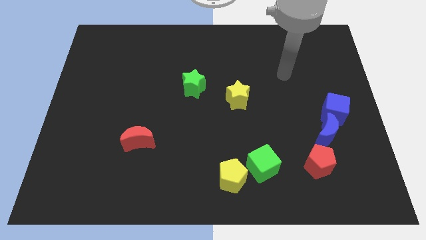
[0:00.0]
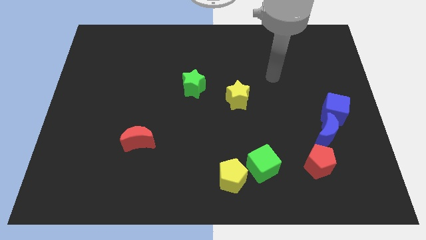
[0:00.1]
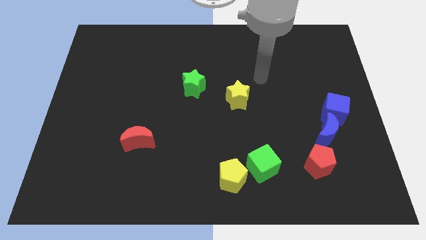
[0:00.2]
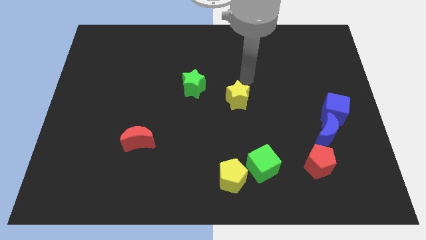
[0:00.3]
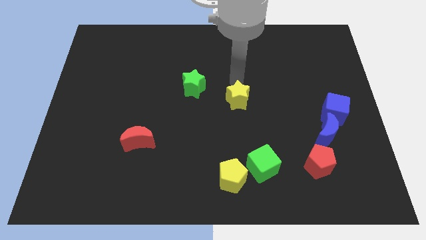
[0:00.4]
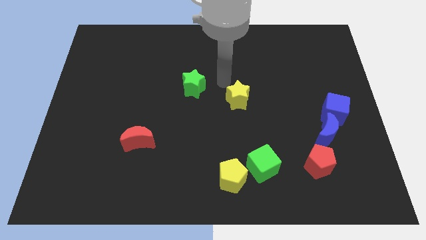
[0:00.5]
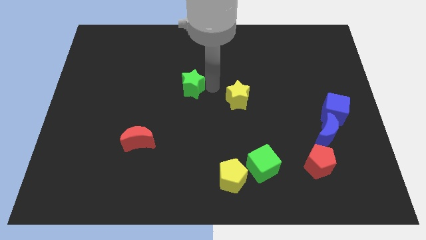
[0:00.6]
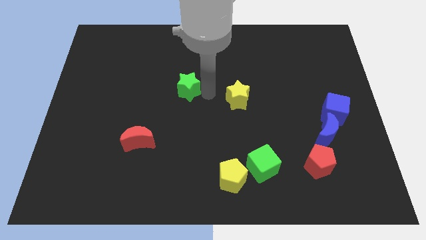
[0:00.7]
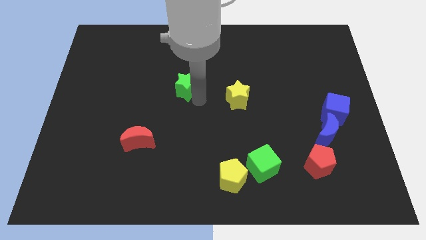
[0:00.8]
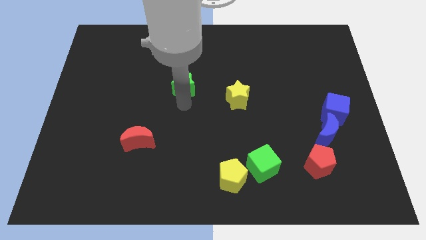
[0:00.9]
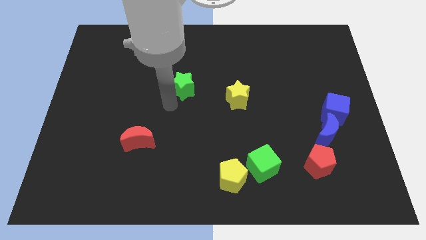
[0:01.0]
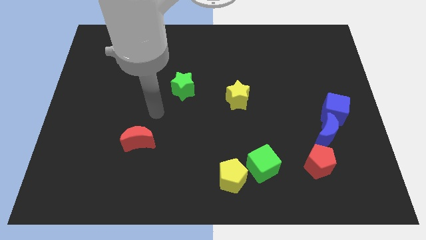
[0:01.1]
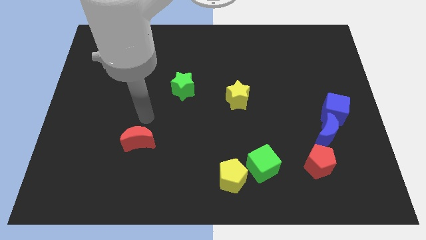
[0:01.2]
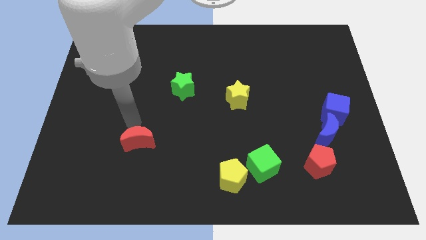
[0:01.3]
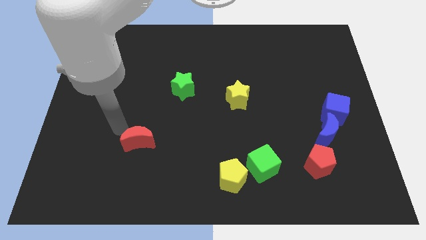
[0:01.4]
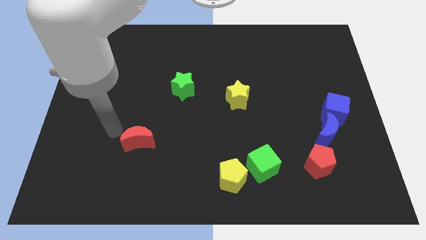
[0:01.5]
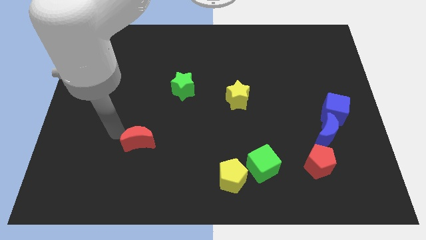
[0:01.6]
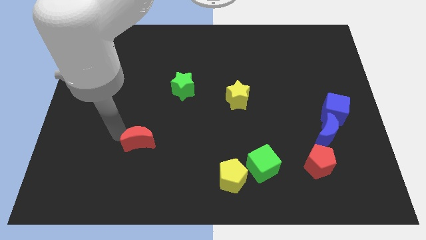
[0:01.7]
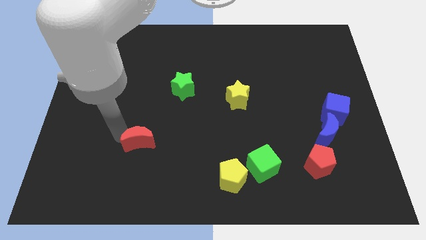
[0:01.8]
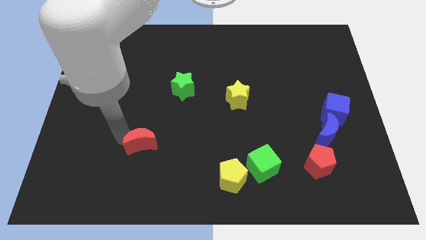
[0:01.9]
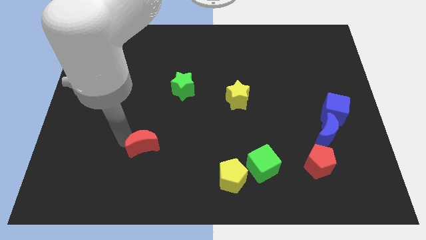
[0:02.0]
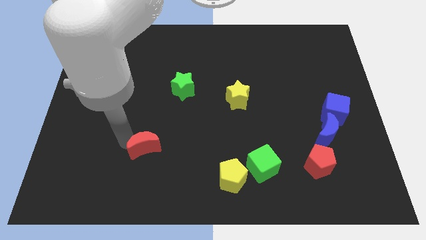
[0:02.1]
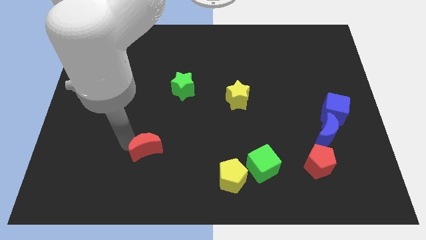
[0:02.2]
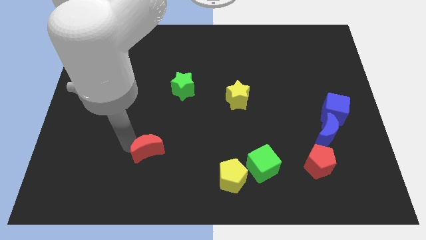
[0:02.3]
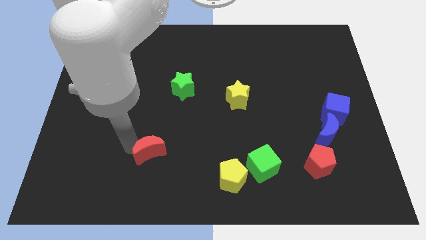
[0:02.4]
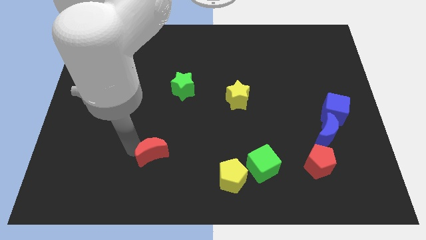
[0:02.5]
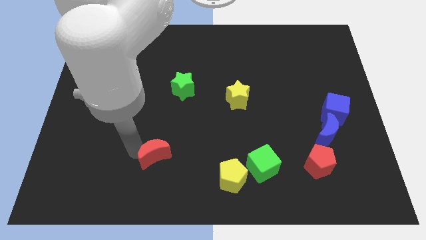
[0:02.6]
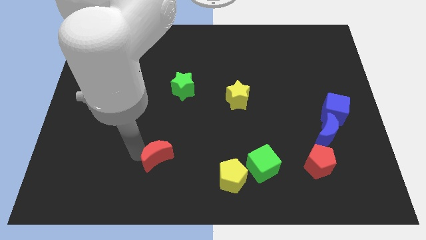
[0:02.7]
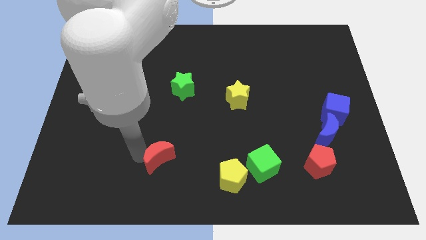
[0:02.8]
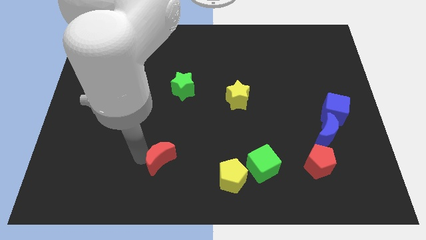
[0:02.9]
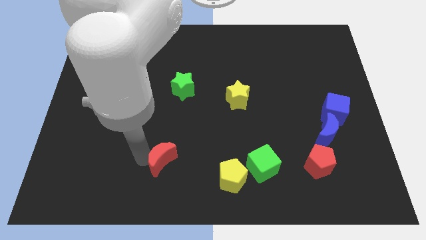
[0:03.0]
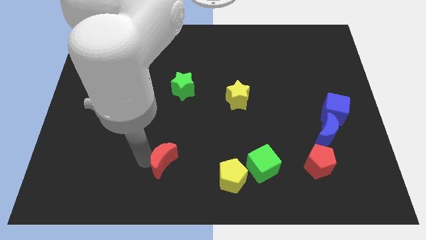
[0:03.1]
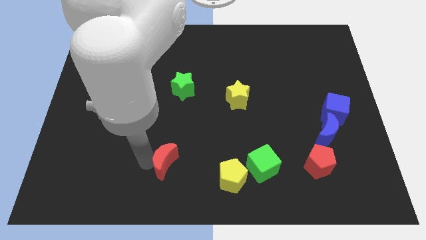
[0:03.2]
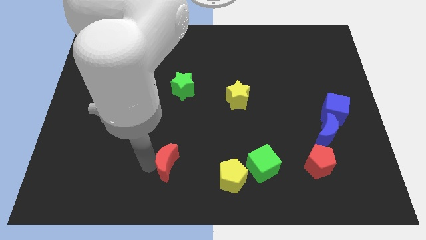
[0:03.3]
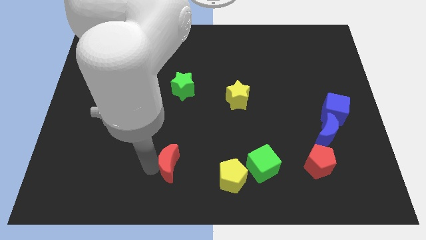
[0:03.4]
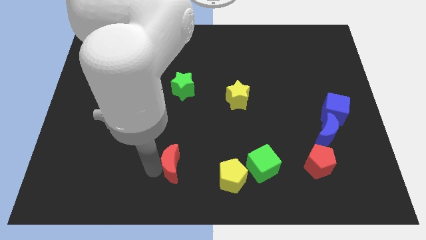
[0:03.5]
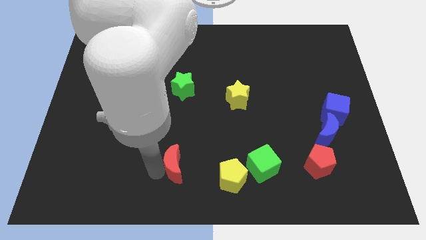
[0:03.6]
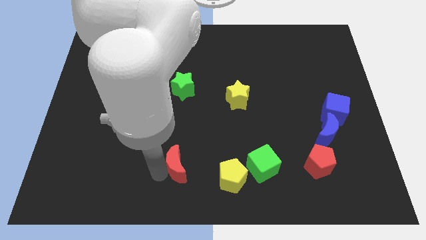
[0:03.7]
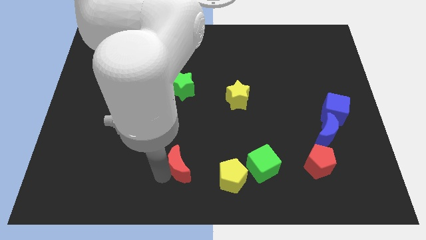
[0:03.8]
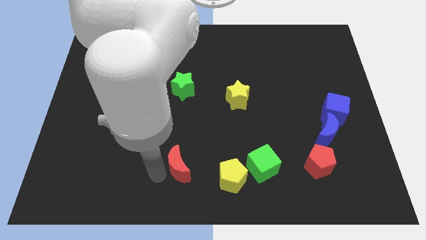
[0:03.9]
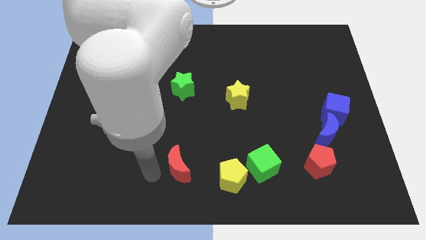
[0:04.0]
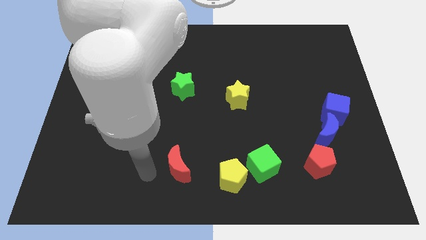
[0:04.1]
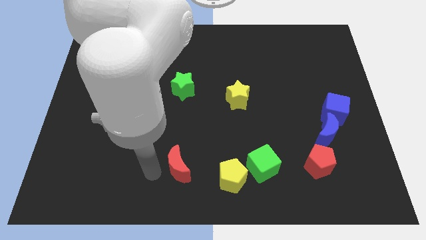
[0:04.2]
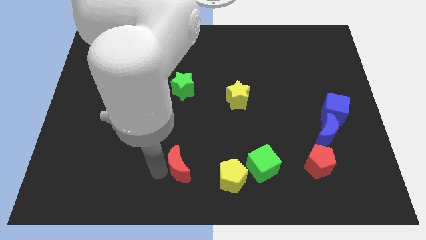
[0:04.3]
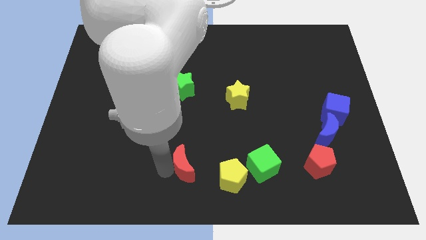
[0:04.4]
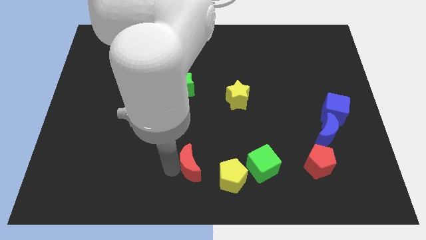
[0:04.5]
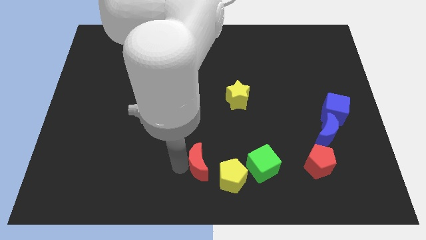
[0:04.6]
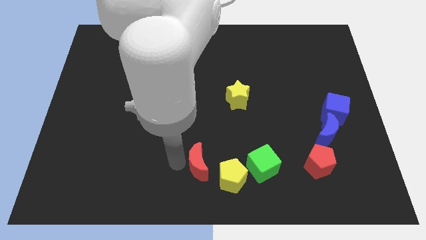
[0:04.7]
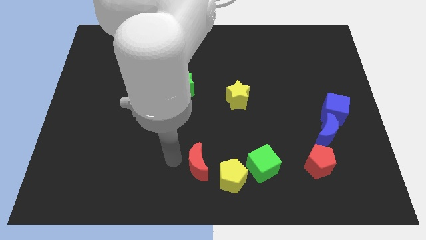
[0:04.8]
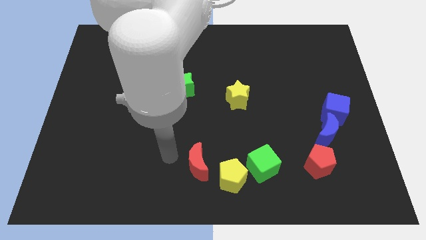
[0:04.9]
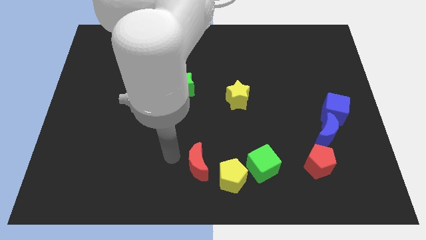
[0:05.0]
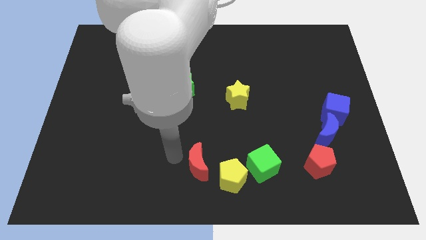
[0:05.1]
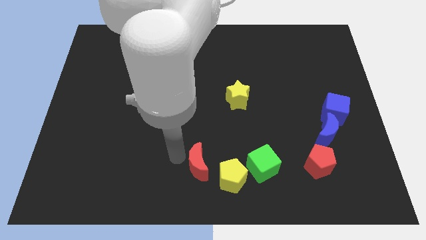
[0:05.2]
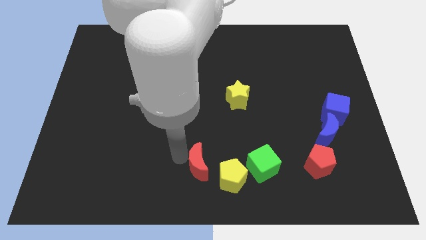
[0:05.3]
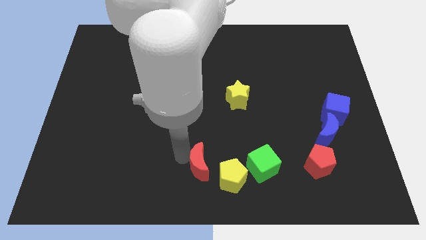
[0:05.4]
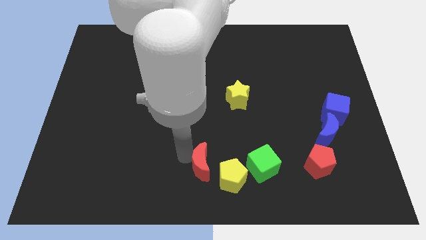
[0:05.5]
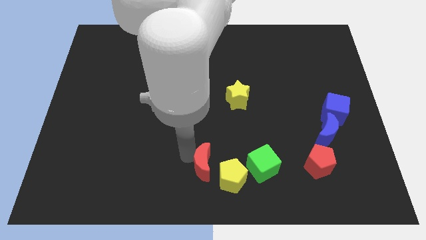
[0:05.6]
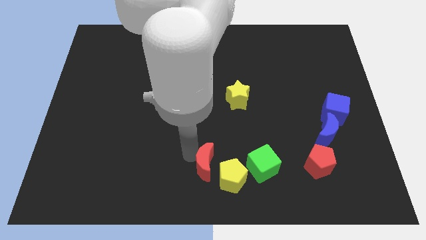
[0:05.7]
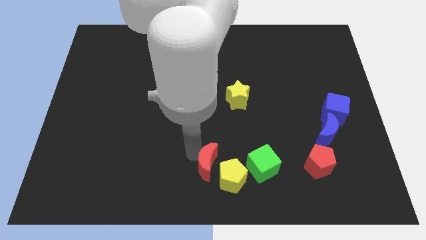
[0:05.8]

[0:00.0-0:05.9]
move the red moon close to the yellow pentagon

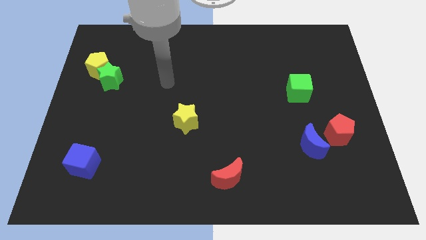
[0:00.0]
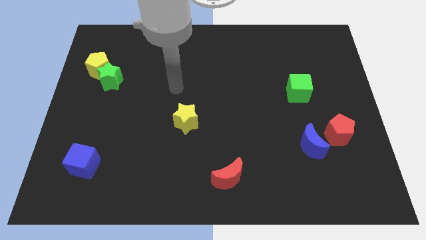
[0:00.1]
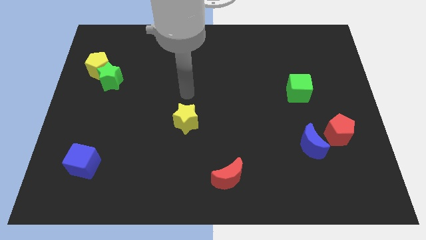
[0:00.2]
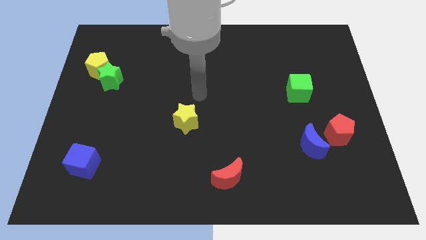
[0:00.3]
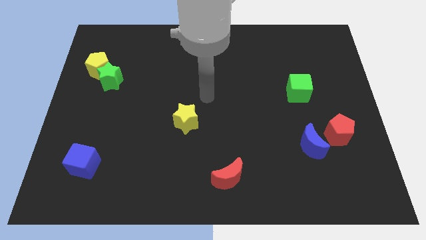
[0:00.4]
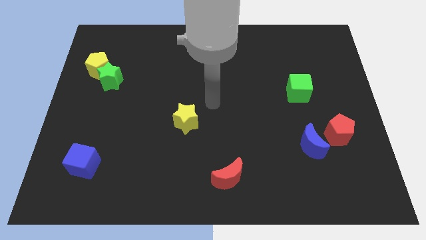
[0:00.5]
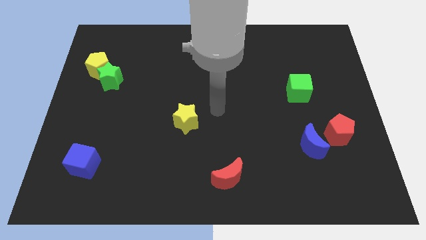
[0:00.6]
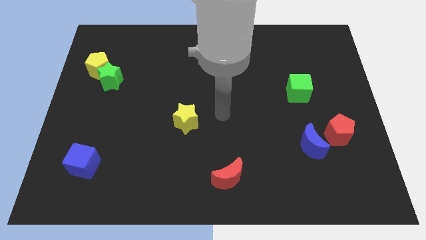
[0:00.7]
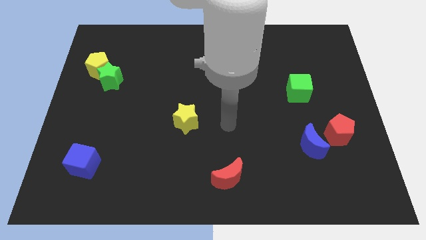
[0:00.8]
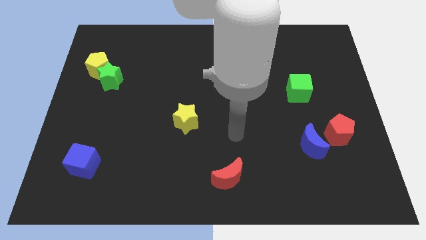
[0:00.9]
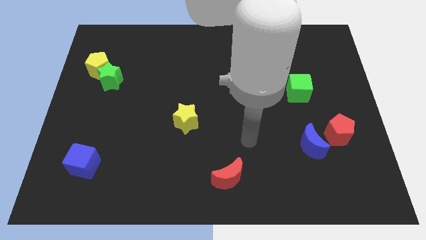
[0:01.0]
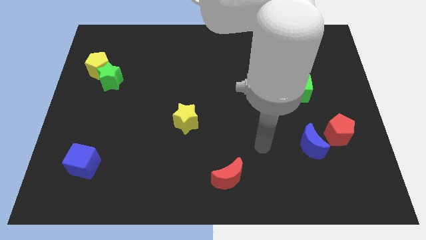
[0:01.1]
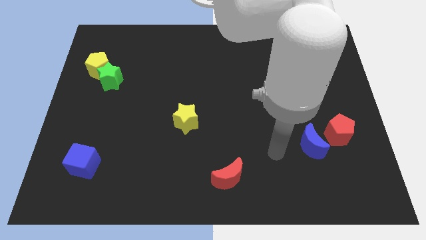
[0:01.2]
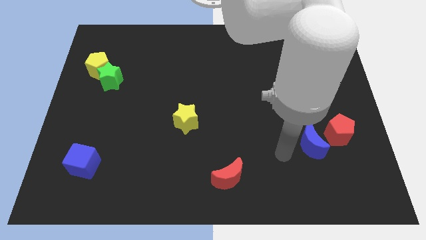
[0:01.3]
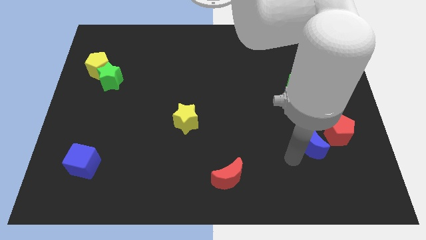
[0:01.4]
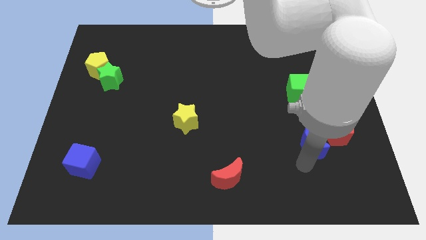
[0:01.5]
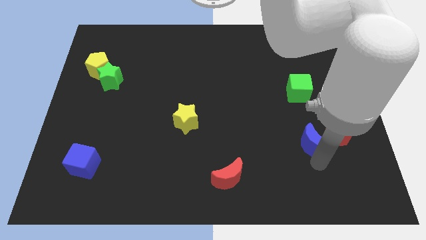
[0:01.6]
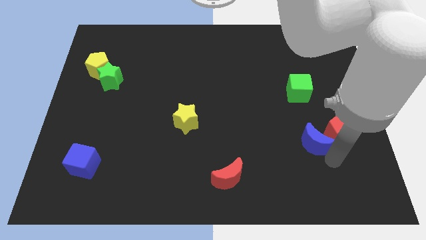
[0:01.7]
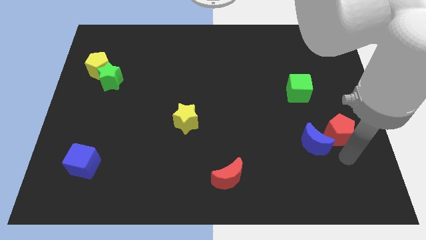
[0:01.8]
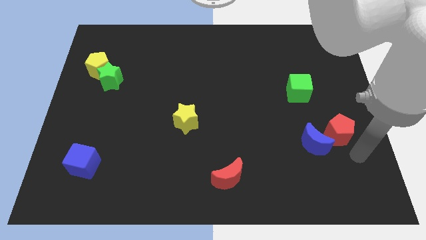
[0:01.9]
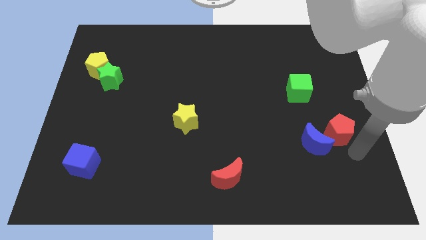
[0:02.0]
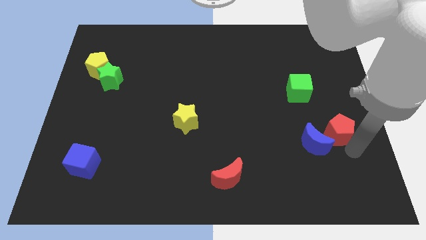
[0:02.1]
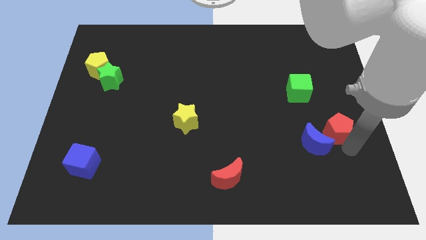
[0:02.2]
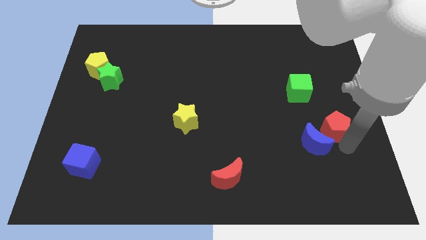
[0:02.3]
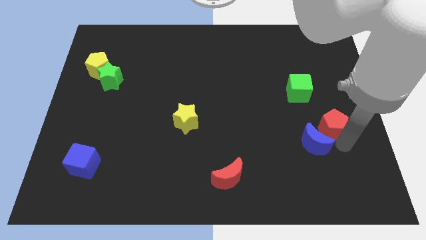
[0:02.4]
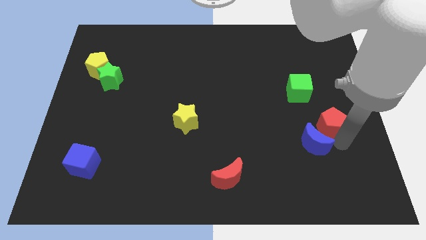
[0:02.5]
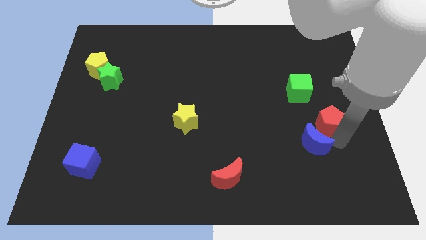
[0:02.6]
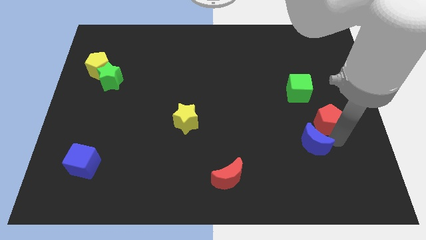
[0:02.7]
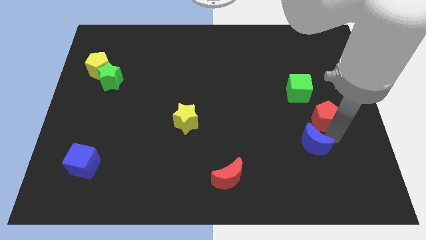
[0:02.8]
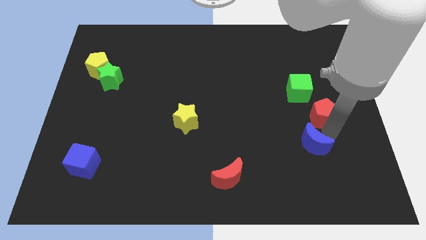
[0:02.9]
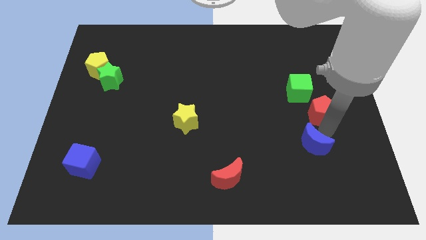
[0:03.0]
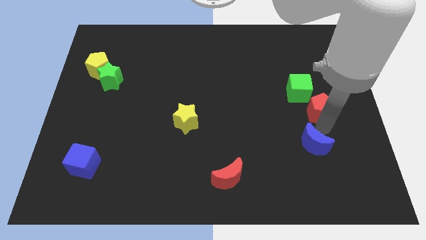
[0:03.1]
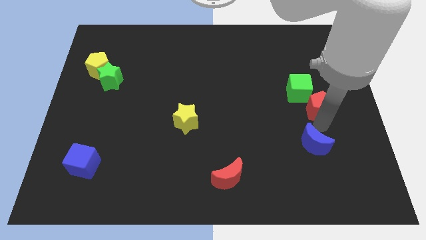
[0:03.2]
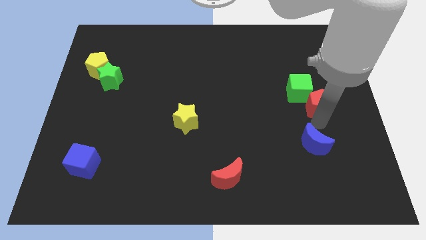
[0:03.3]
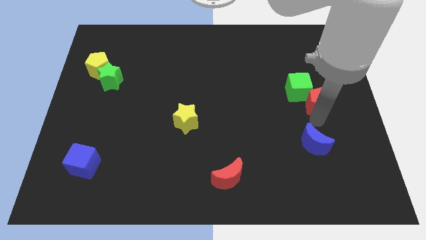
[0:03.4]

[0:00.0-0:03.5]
move the red pentagon to the green cube
